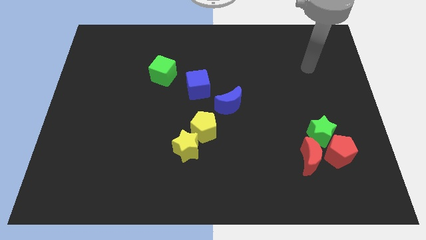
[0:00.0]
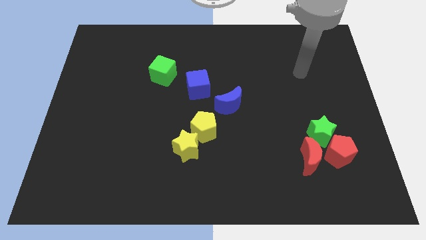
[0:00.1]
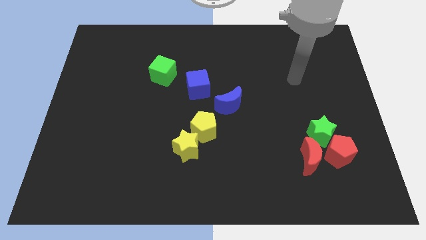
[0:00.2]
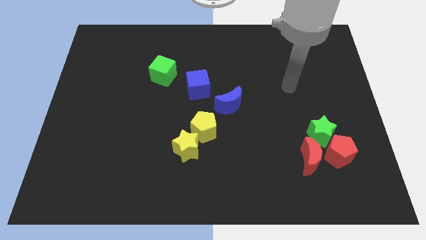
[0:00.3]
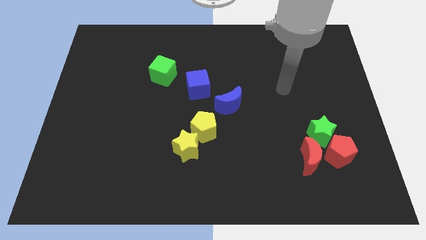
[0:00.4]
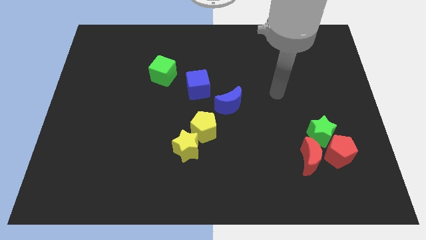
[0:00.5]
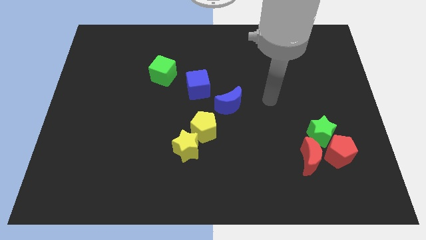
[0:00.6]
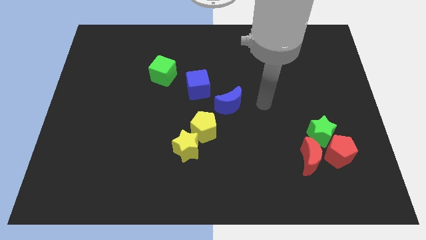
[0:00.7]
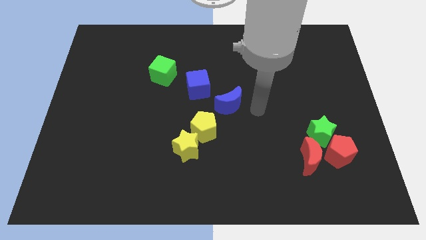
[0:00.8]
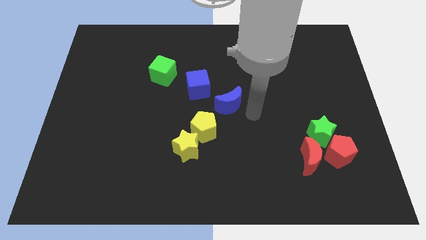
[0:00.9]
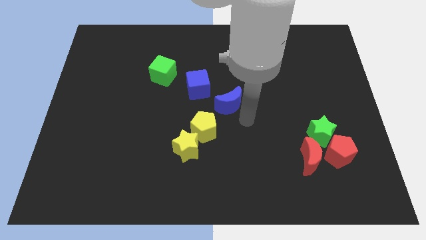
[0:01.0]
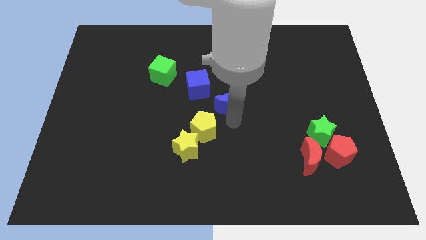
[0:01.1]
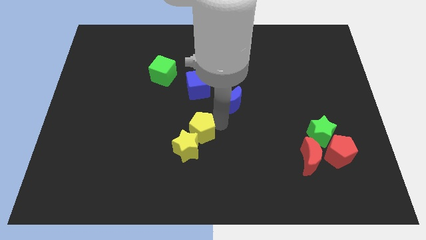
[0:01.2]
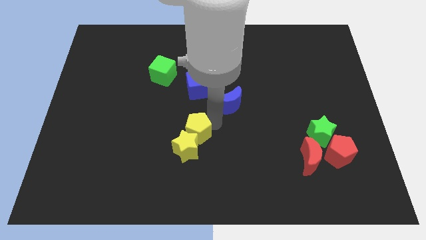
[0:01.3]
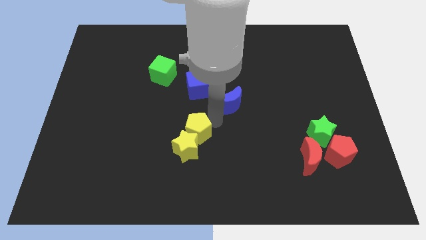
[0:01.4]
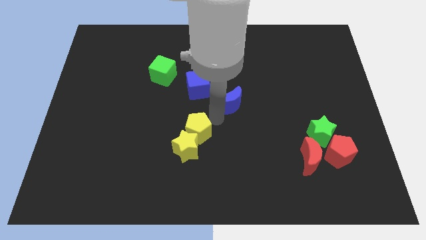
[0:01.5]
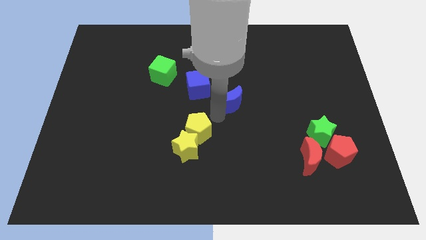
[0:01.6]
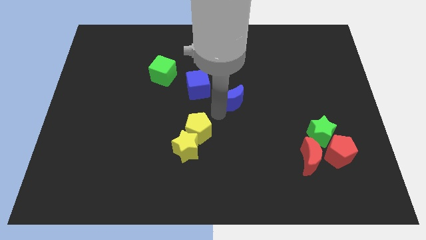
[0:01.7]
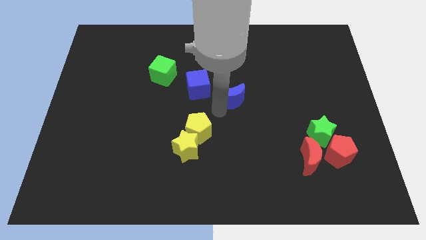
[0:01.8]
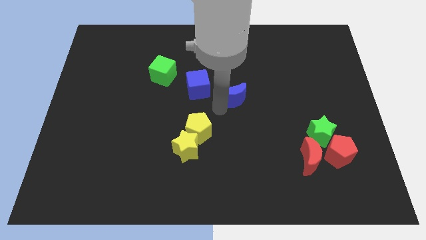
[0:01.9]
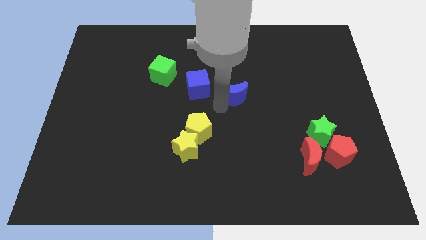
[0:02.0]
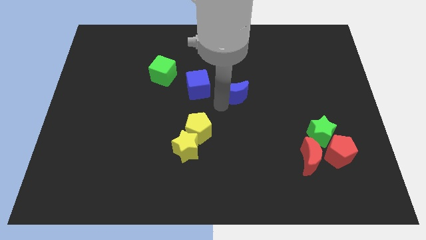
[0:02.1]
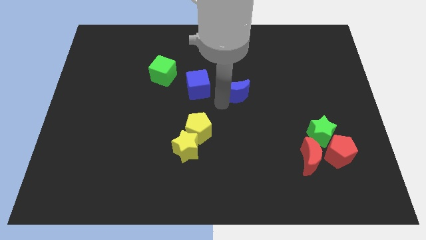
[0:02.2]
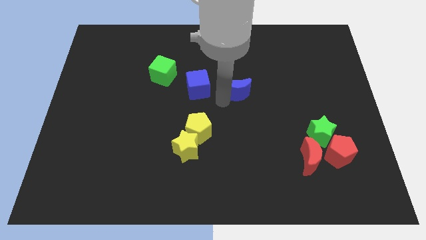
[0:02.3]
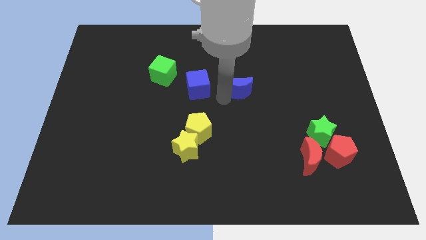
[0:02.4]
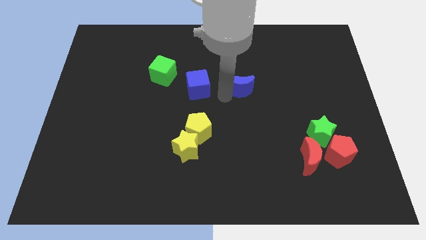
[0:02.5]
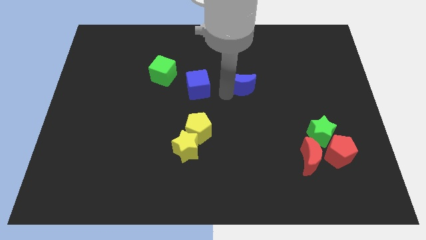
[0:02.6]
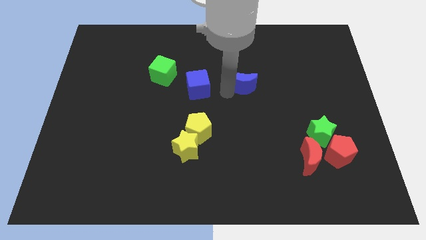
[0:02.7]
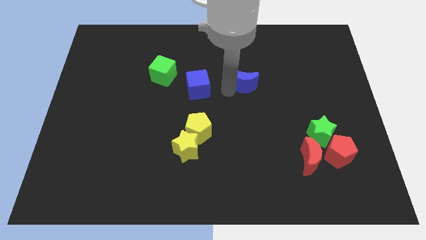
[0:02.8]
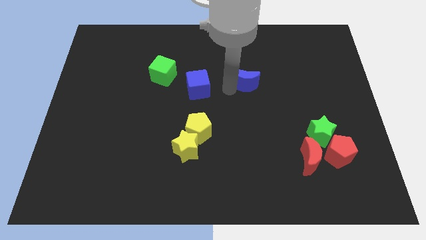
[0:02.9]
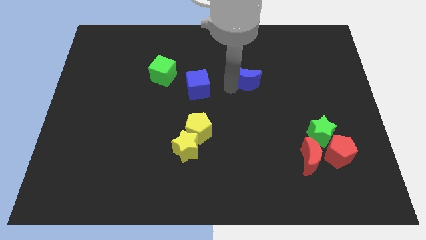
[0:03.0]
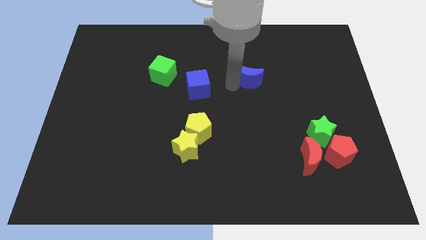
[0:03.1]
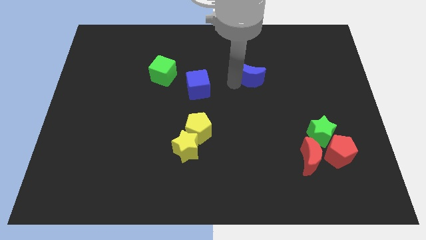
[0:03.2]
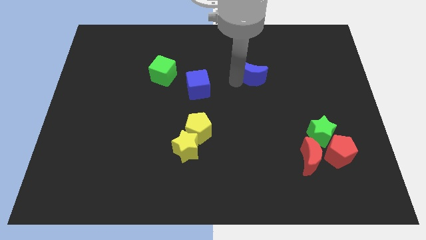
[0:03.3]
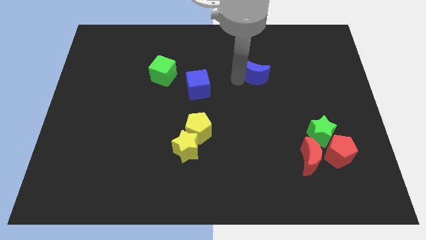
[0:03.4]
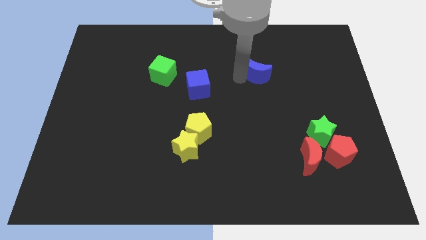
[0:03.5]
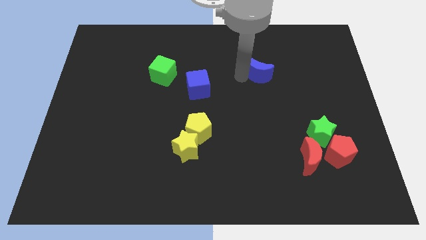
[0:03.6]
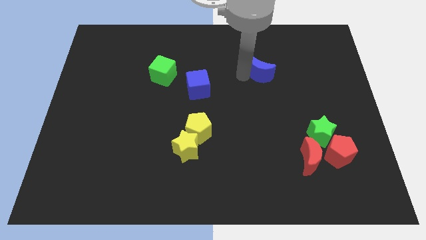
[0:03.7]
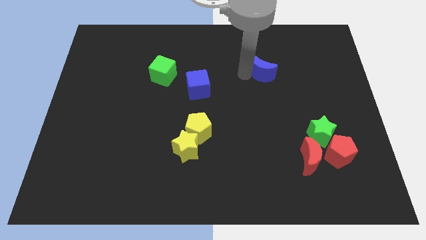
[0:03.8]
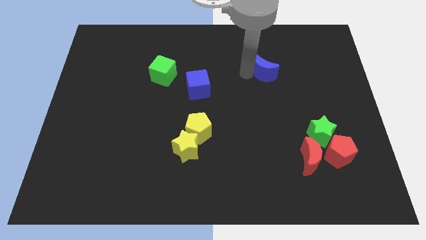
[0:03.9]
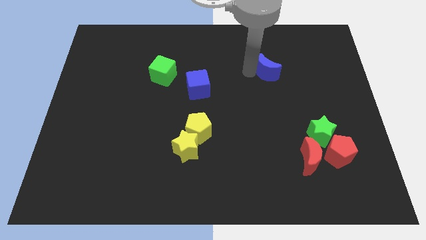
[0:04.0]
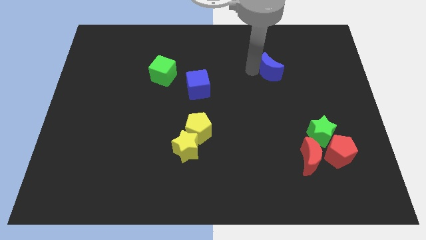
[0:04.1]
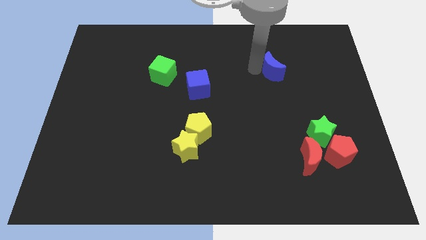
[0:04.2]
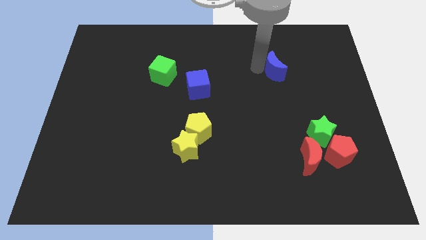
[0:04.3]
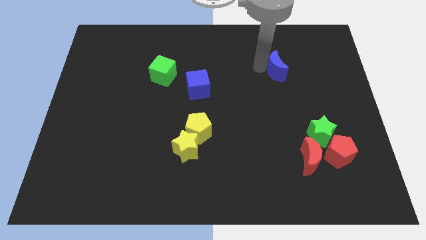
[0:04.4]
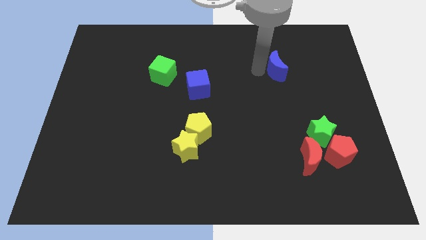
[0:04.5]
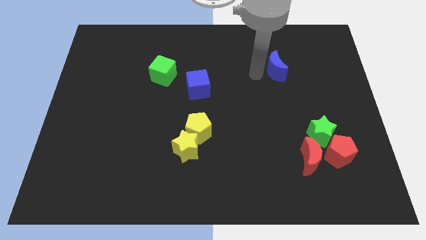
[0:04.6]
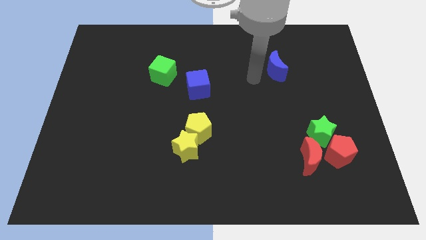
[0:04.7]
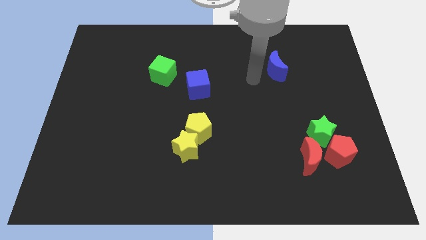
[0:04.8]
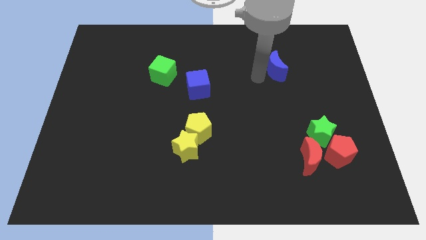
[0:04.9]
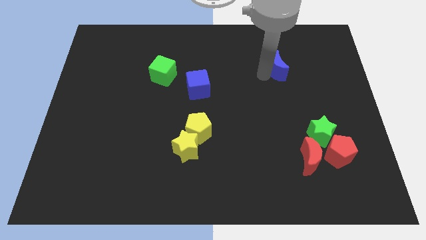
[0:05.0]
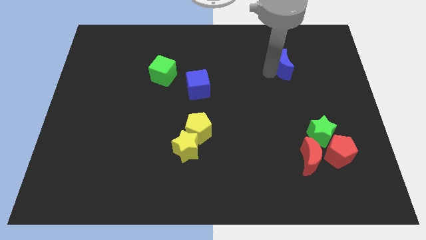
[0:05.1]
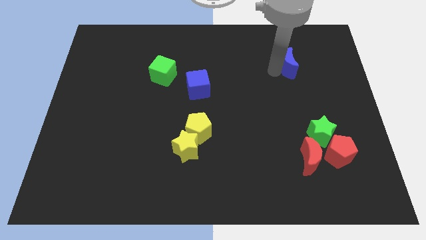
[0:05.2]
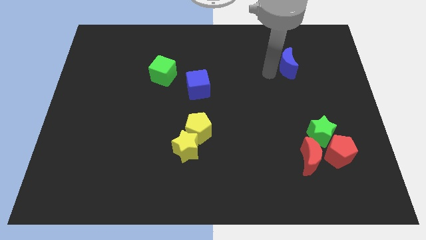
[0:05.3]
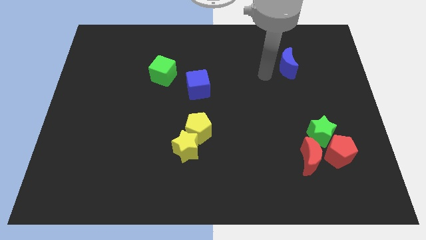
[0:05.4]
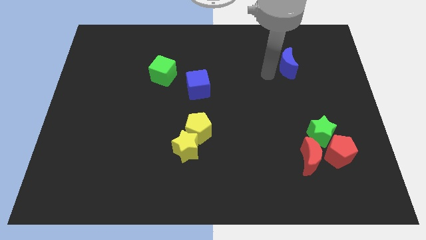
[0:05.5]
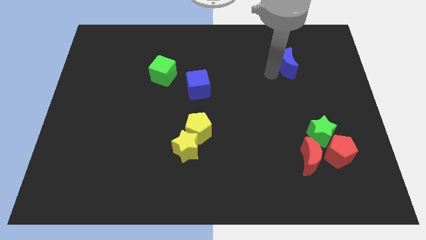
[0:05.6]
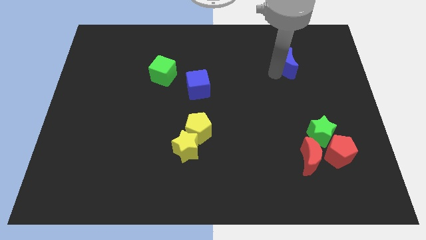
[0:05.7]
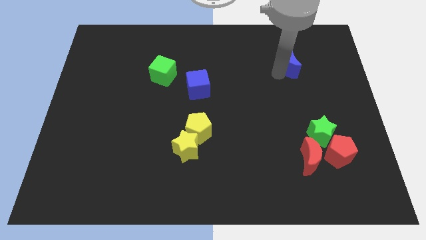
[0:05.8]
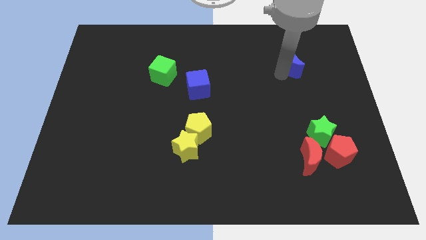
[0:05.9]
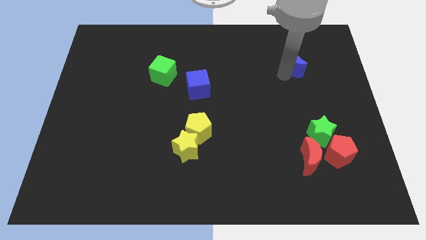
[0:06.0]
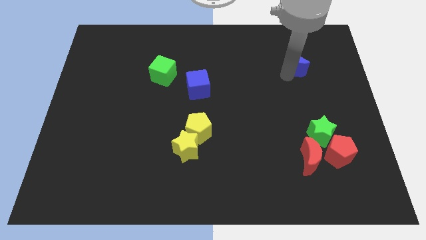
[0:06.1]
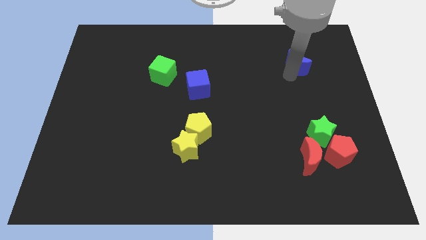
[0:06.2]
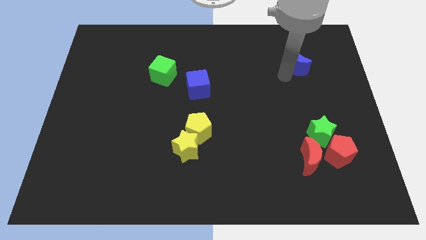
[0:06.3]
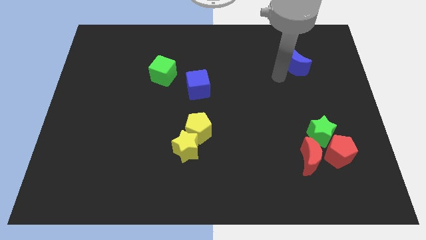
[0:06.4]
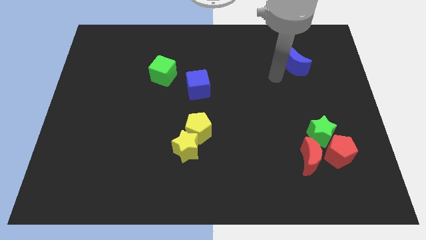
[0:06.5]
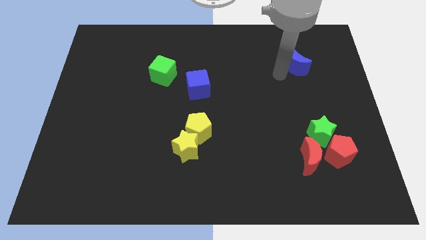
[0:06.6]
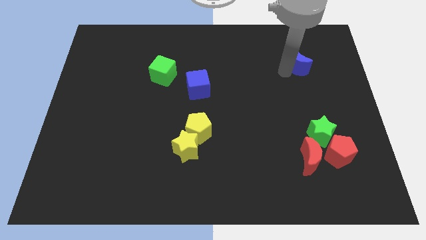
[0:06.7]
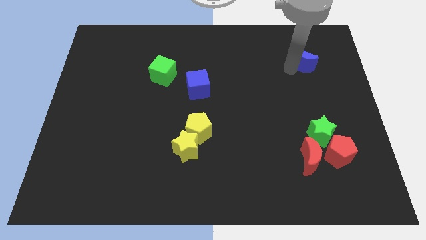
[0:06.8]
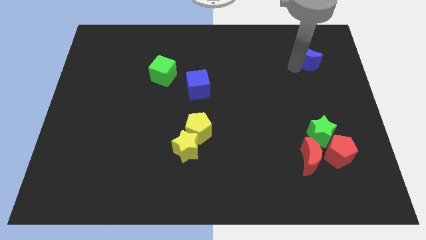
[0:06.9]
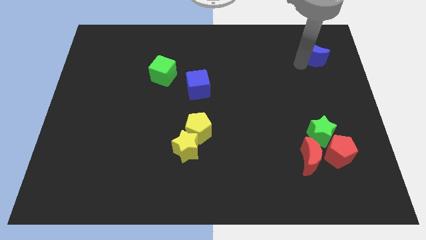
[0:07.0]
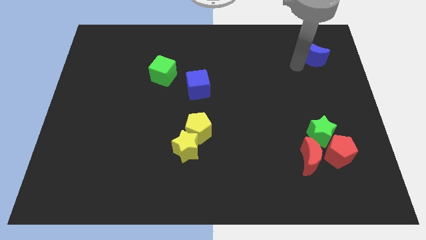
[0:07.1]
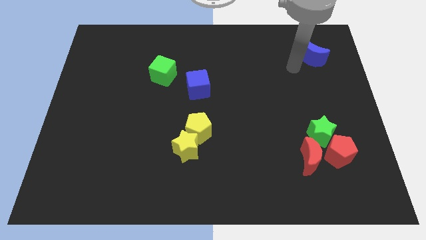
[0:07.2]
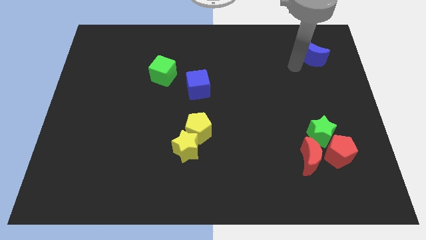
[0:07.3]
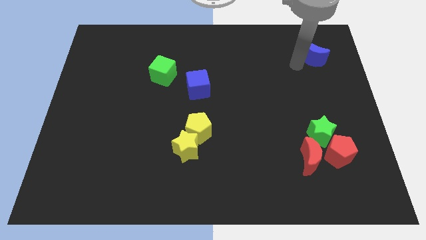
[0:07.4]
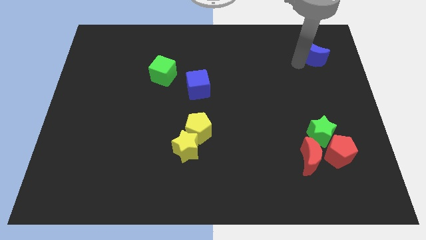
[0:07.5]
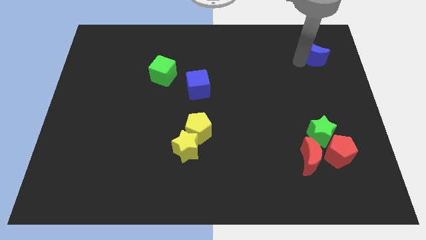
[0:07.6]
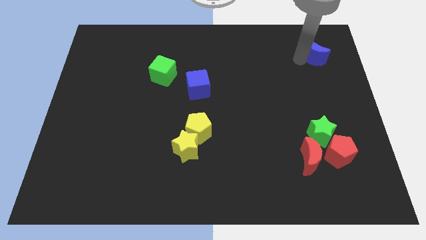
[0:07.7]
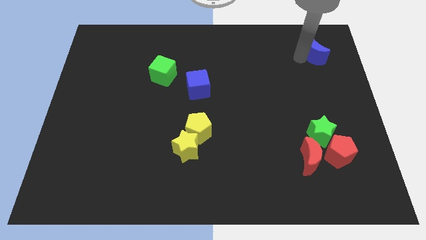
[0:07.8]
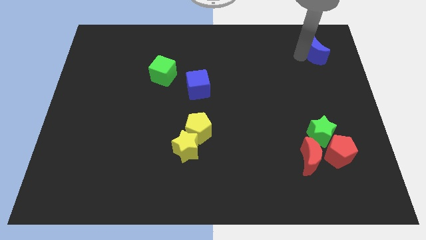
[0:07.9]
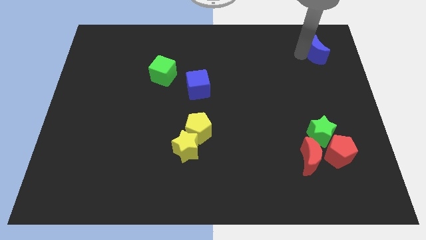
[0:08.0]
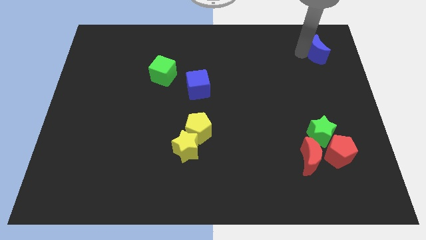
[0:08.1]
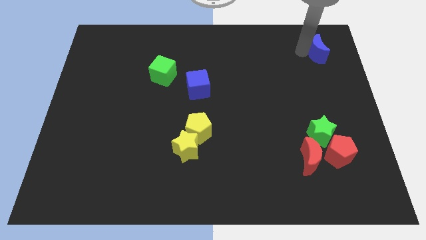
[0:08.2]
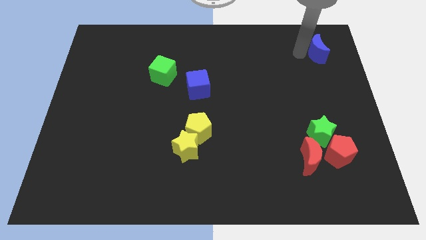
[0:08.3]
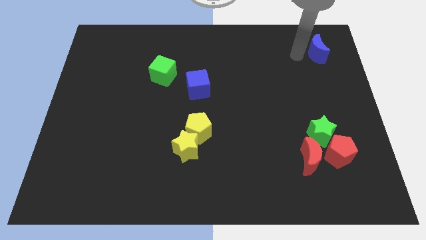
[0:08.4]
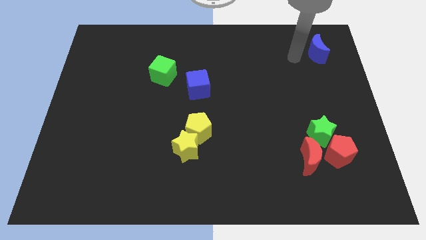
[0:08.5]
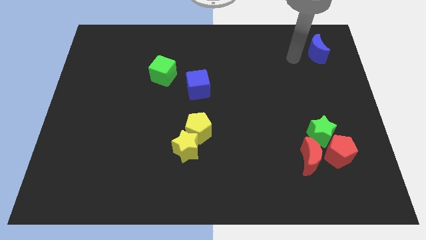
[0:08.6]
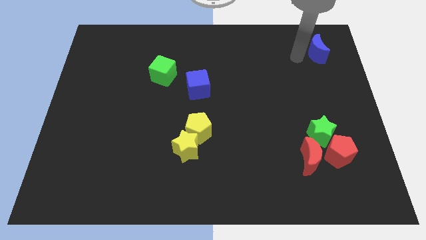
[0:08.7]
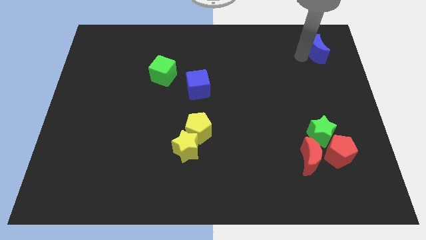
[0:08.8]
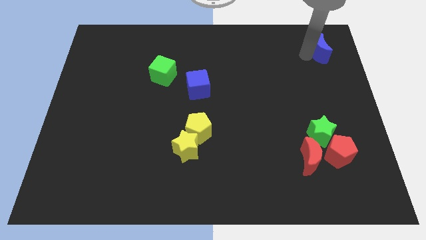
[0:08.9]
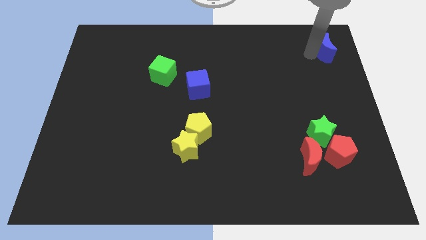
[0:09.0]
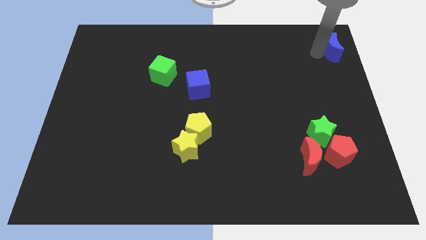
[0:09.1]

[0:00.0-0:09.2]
move the blue moon to the top right
